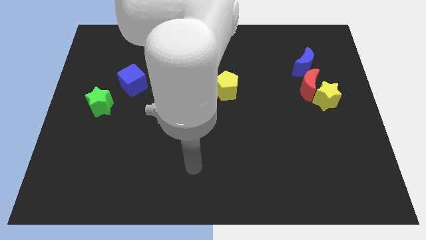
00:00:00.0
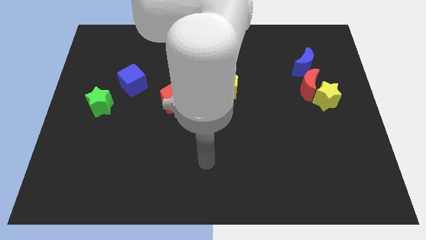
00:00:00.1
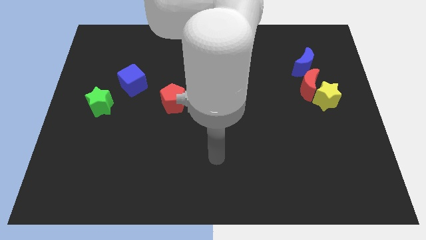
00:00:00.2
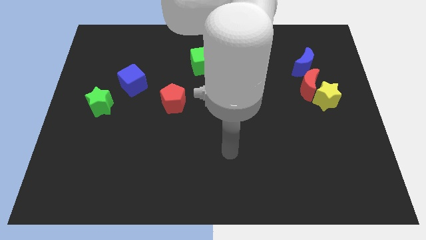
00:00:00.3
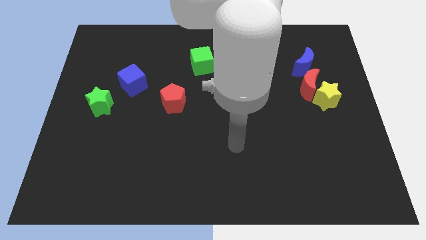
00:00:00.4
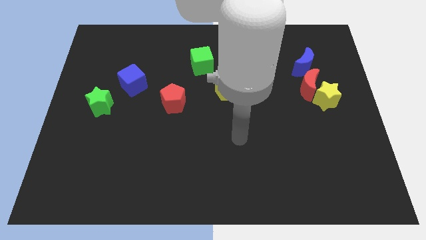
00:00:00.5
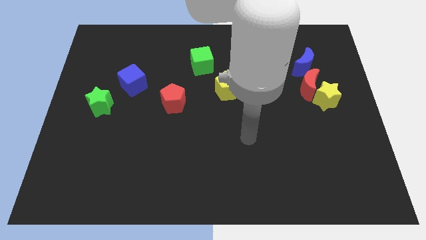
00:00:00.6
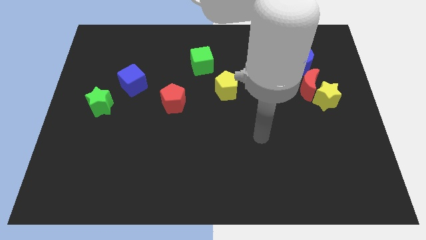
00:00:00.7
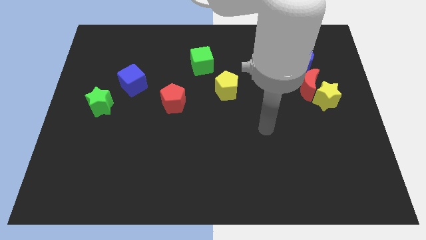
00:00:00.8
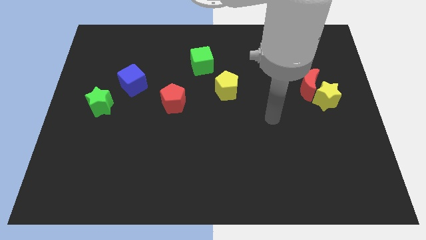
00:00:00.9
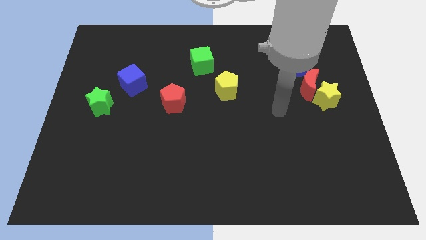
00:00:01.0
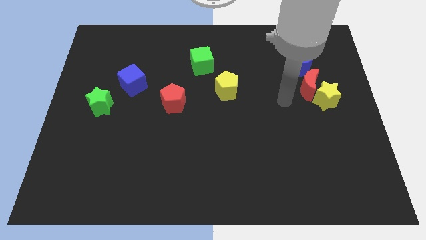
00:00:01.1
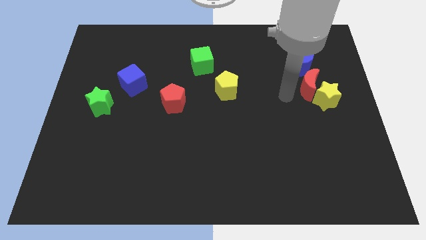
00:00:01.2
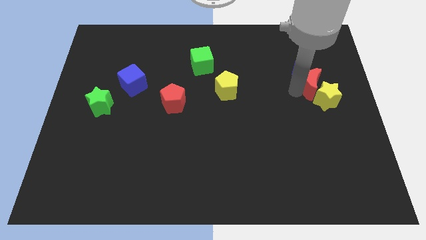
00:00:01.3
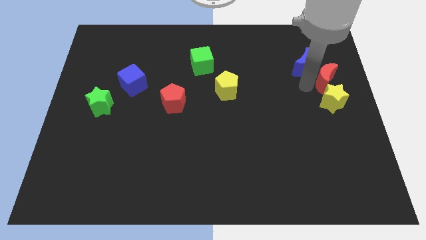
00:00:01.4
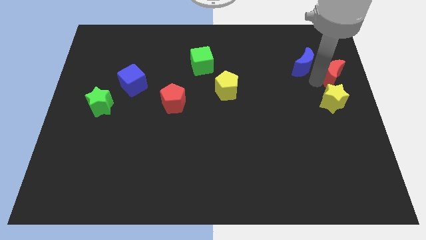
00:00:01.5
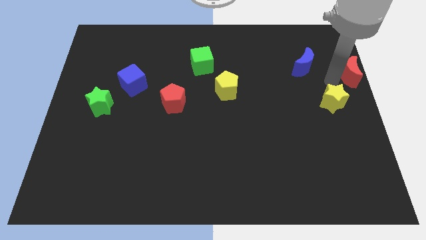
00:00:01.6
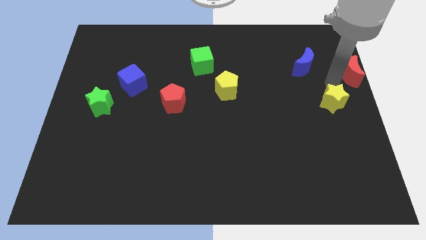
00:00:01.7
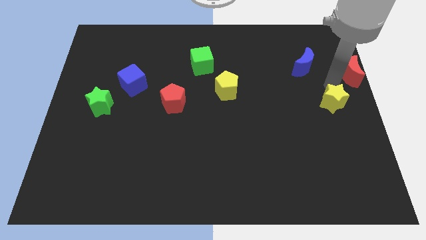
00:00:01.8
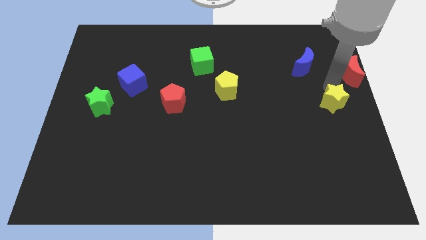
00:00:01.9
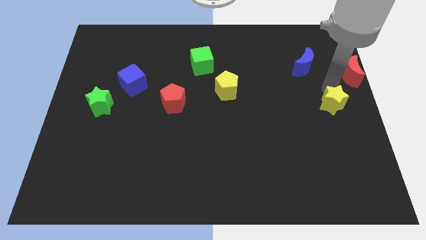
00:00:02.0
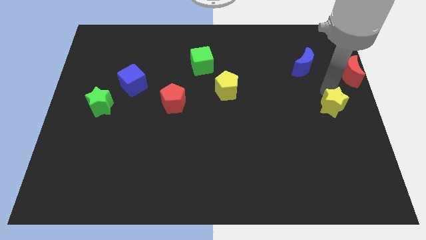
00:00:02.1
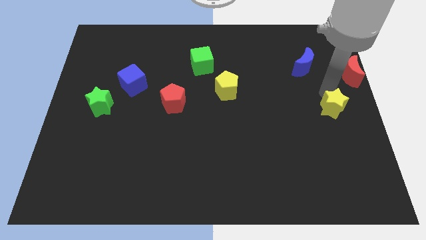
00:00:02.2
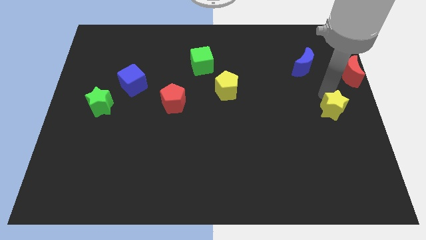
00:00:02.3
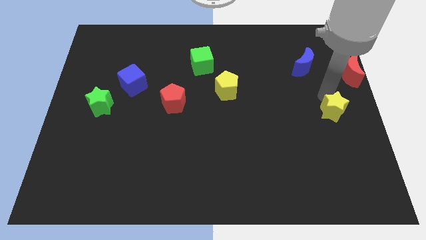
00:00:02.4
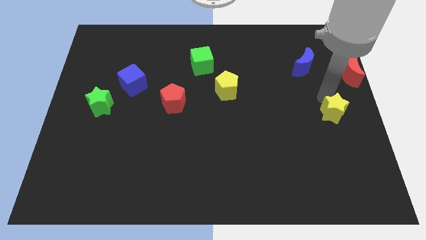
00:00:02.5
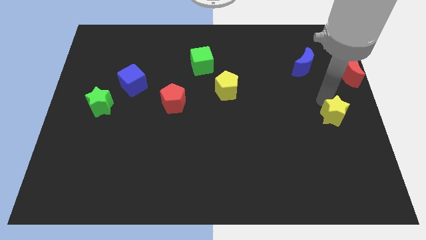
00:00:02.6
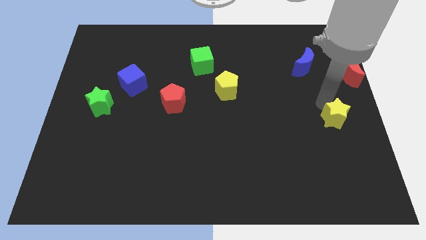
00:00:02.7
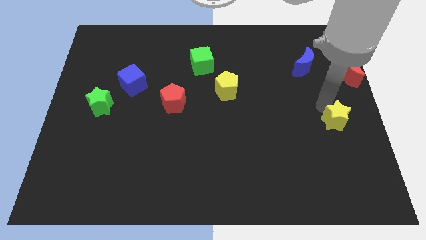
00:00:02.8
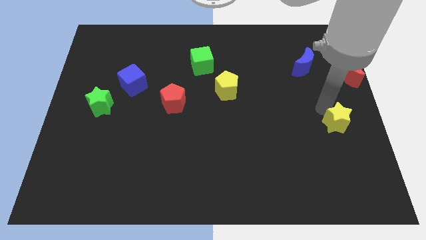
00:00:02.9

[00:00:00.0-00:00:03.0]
slightly push the yellow star down

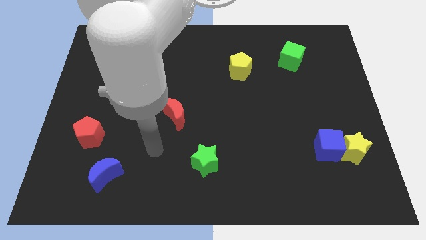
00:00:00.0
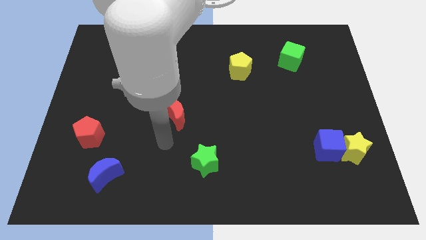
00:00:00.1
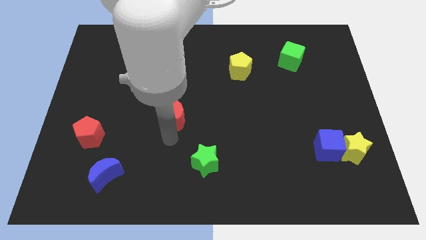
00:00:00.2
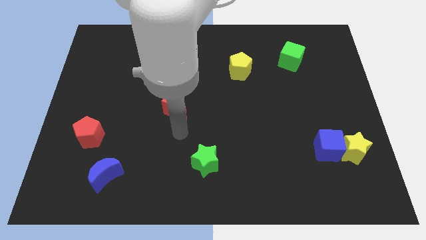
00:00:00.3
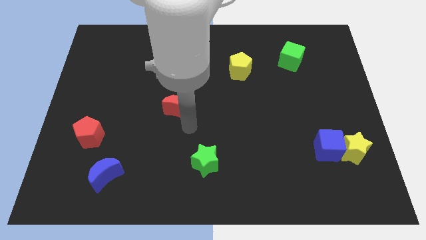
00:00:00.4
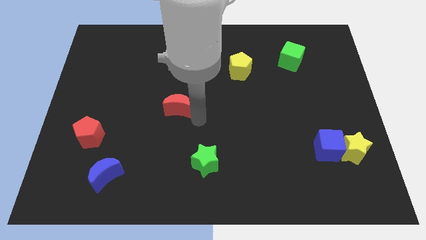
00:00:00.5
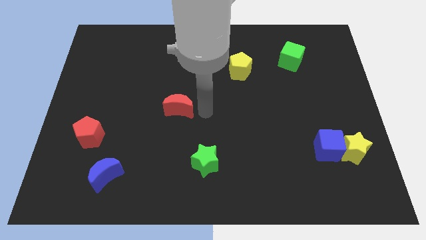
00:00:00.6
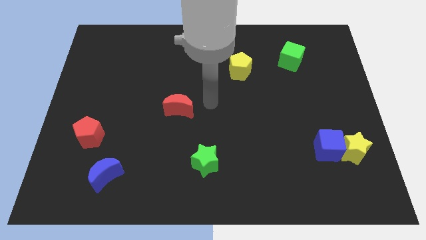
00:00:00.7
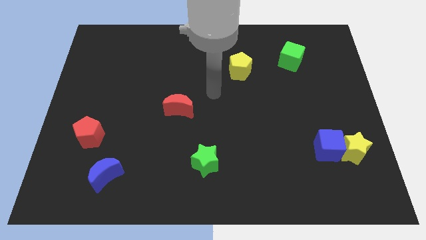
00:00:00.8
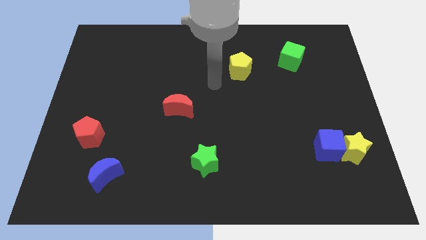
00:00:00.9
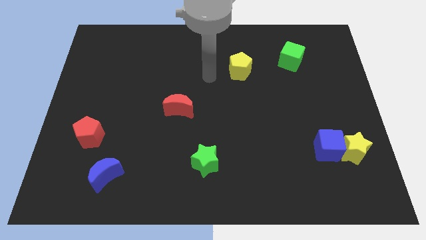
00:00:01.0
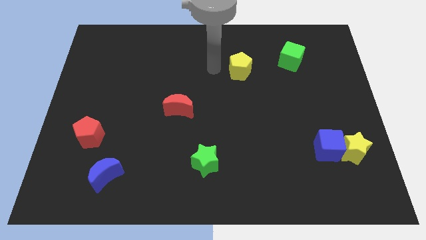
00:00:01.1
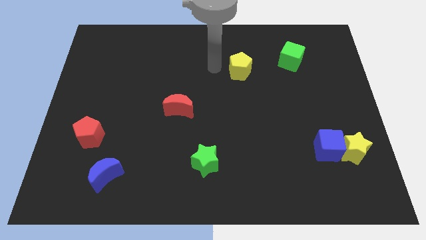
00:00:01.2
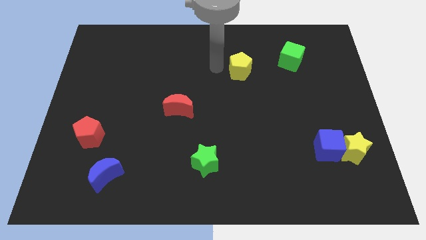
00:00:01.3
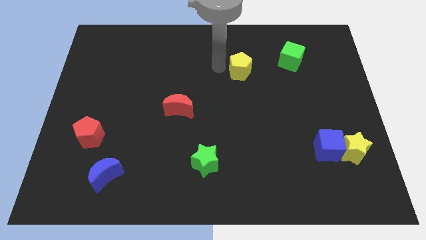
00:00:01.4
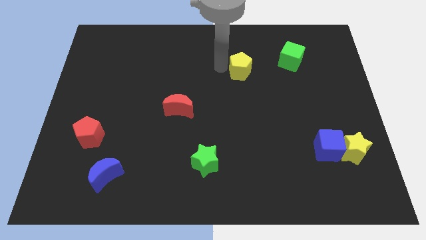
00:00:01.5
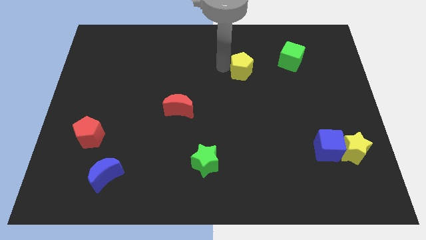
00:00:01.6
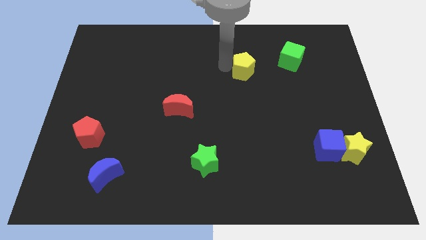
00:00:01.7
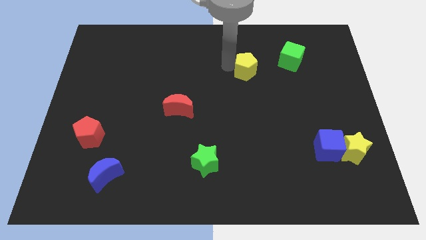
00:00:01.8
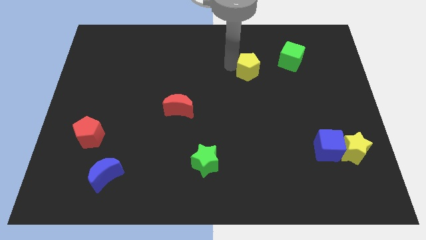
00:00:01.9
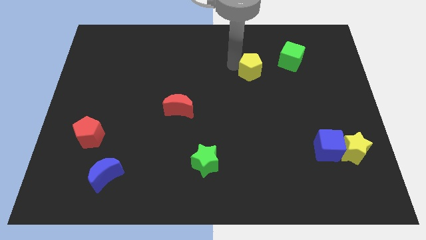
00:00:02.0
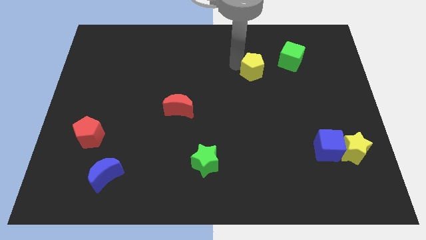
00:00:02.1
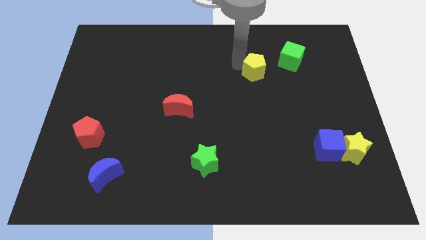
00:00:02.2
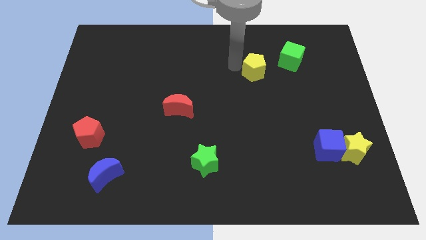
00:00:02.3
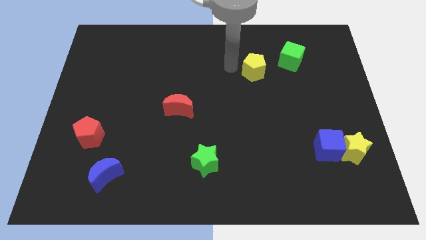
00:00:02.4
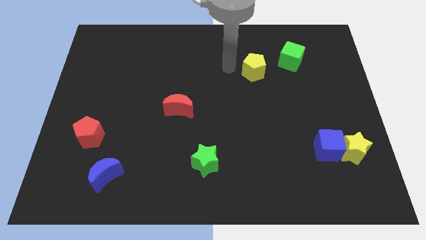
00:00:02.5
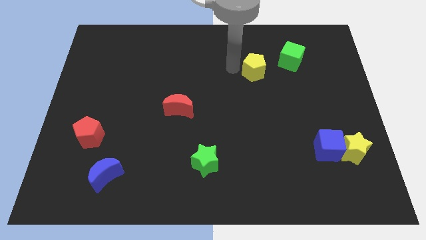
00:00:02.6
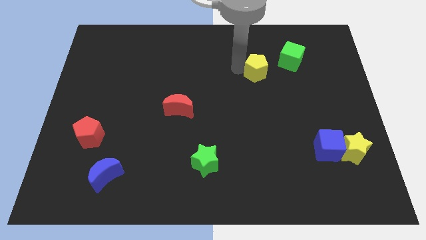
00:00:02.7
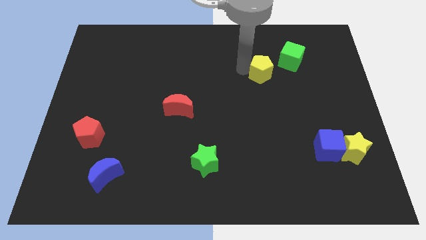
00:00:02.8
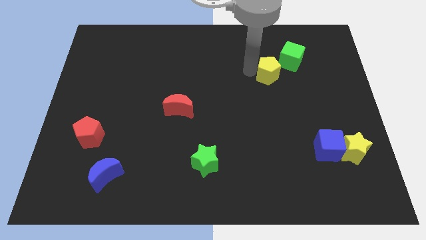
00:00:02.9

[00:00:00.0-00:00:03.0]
push the yellow pentagon a little bit right

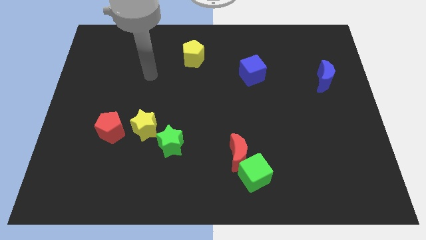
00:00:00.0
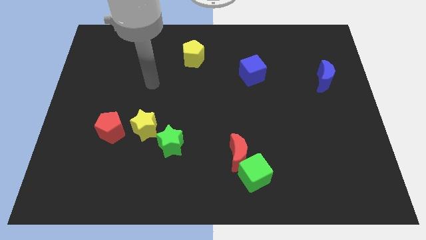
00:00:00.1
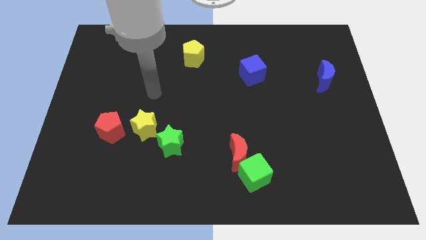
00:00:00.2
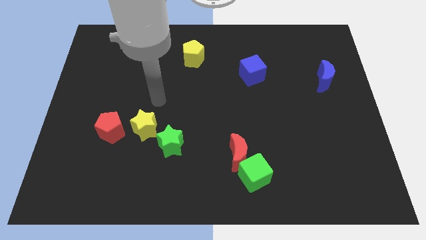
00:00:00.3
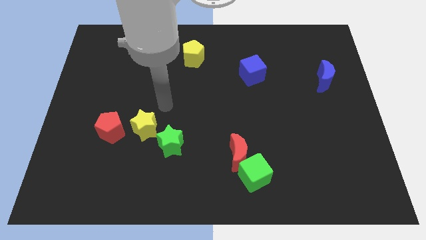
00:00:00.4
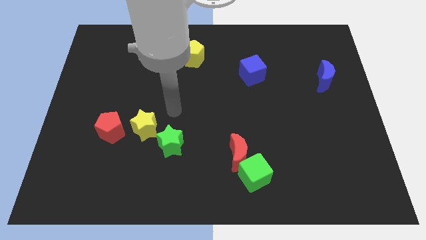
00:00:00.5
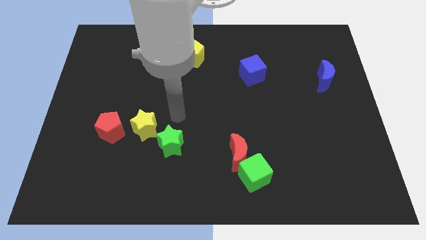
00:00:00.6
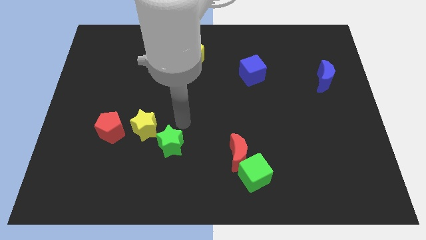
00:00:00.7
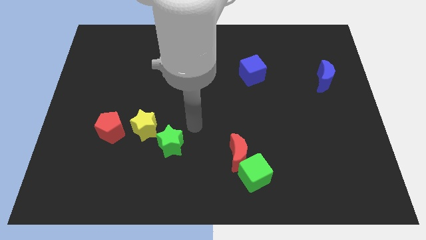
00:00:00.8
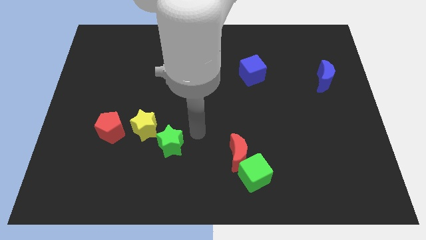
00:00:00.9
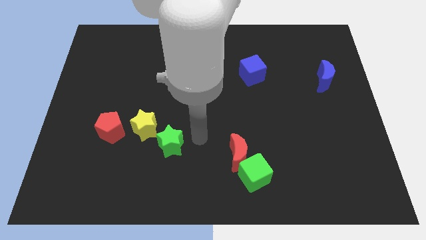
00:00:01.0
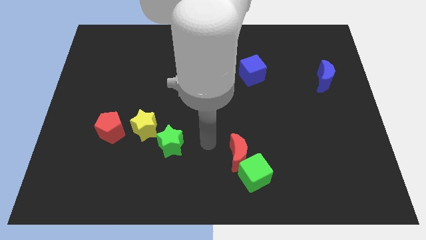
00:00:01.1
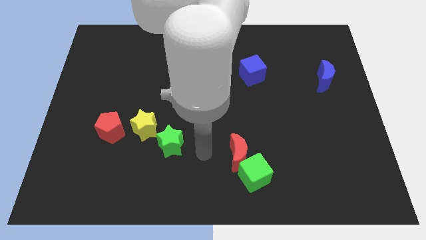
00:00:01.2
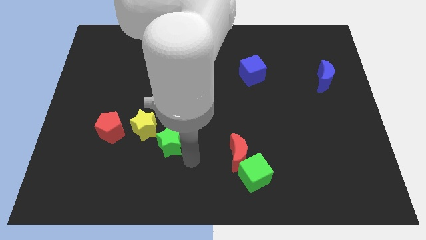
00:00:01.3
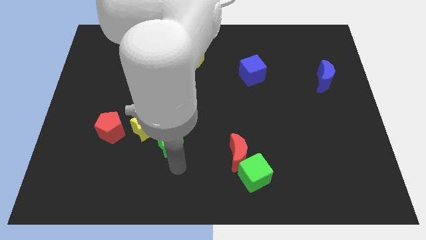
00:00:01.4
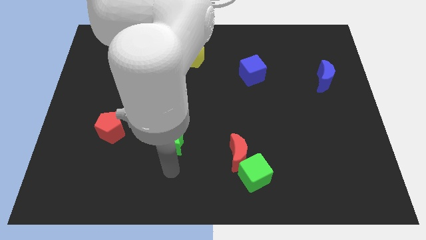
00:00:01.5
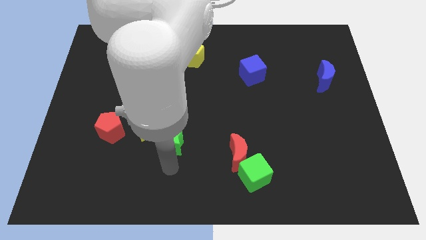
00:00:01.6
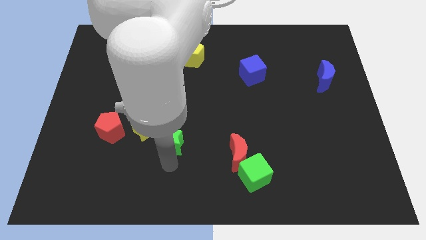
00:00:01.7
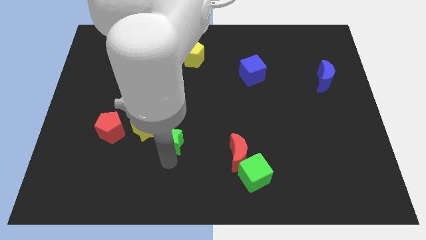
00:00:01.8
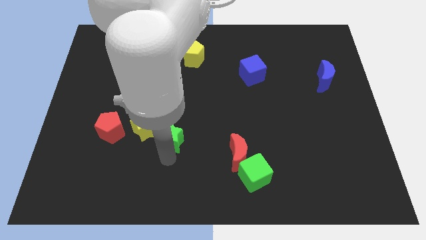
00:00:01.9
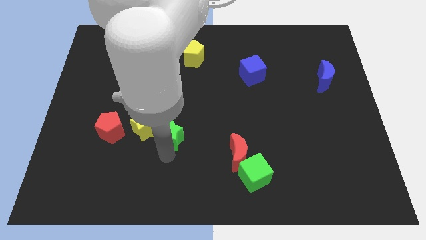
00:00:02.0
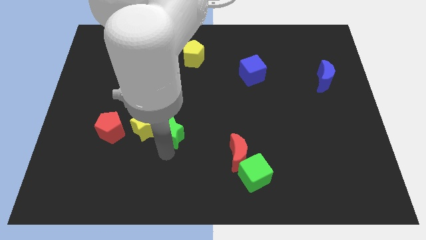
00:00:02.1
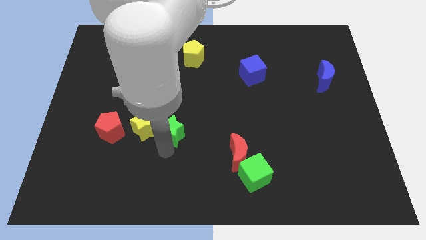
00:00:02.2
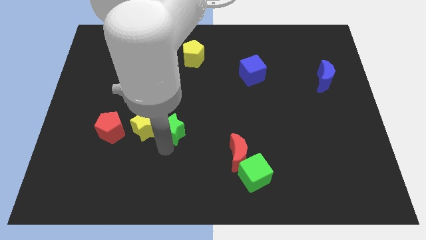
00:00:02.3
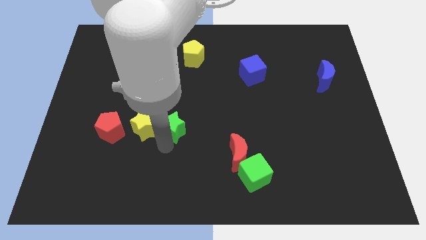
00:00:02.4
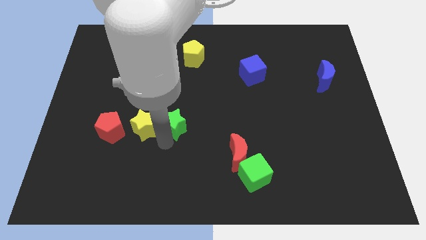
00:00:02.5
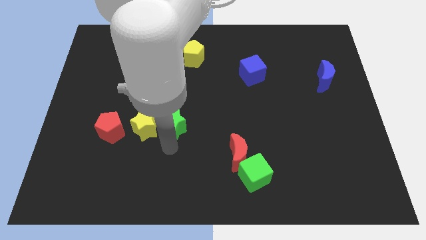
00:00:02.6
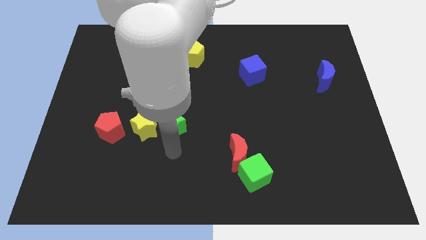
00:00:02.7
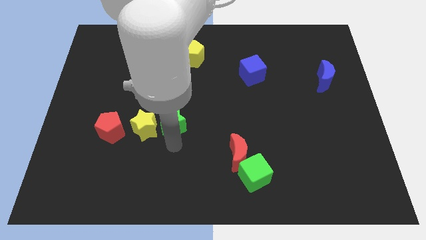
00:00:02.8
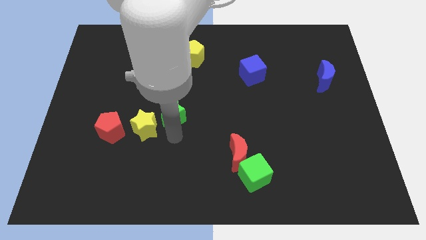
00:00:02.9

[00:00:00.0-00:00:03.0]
push the green star a bit up
